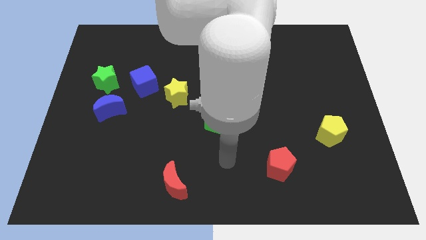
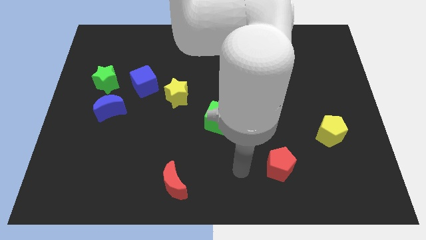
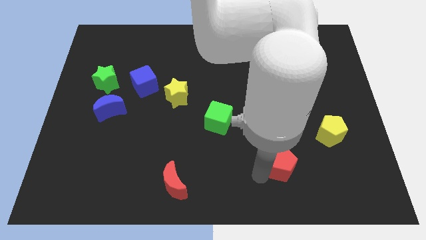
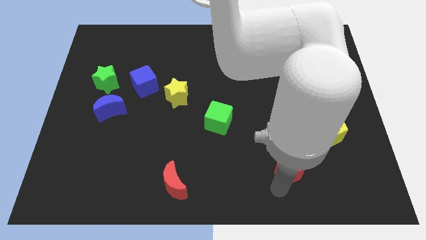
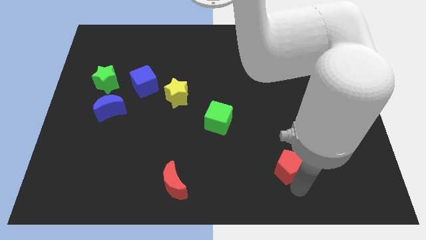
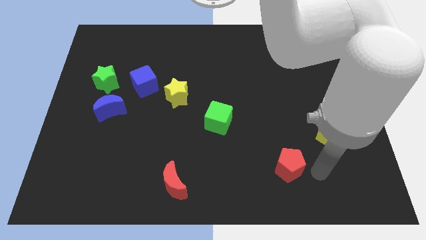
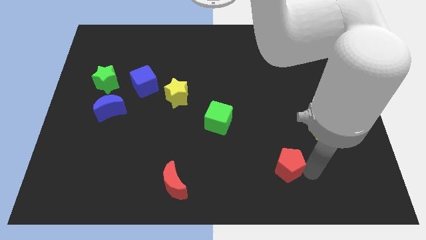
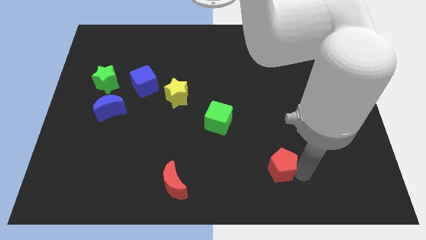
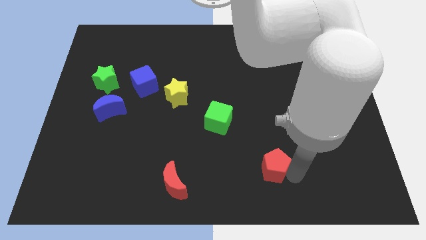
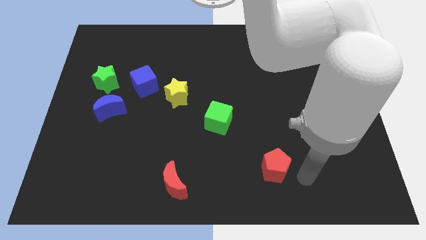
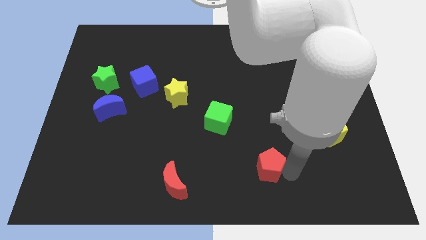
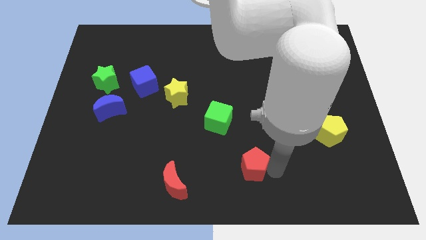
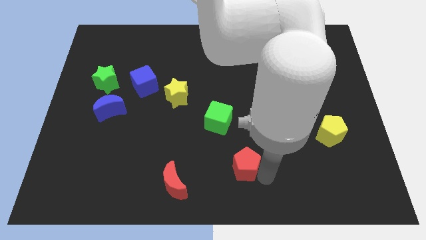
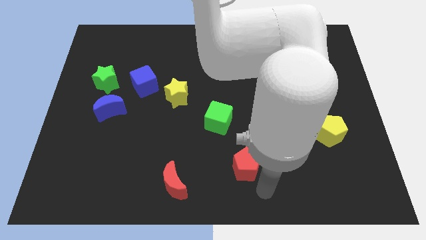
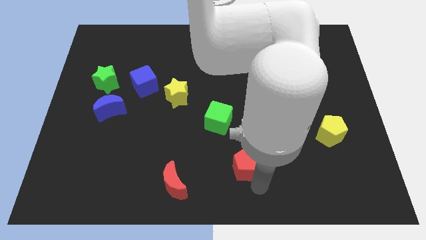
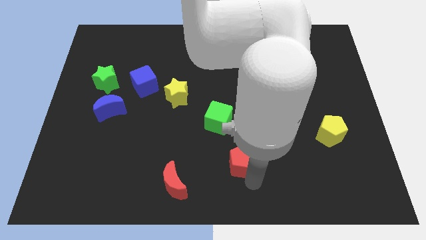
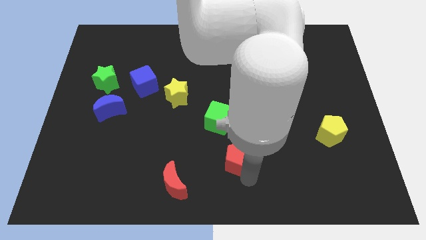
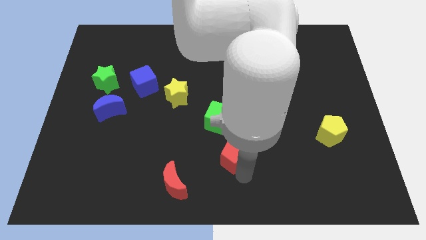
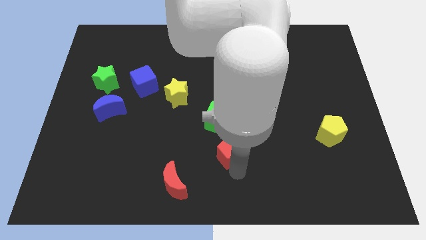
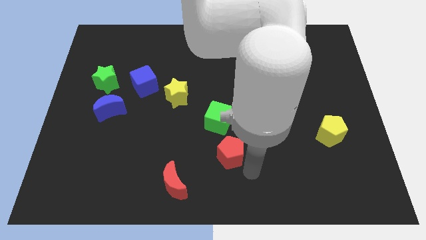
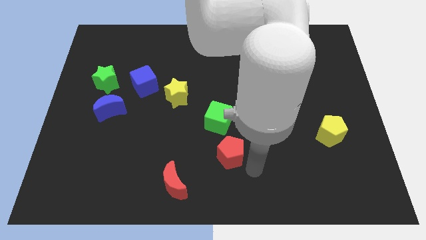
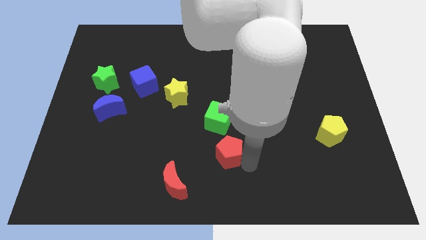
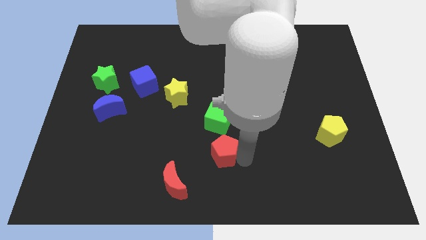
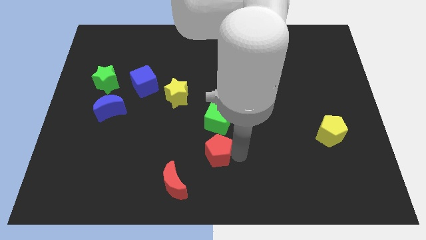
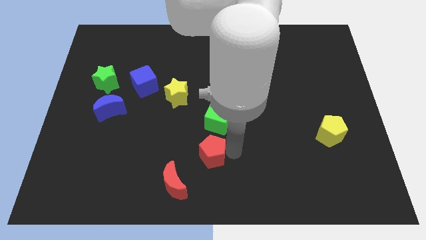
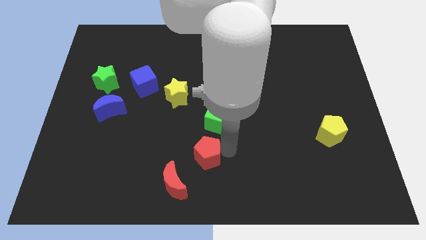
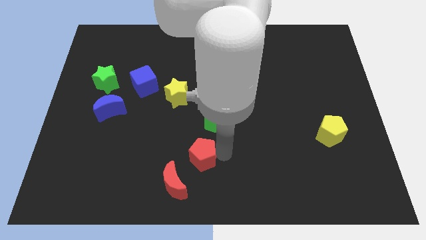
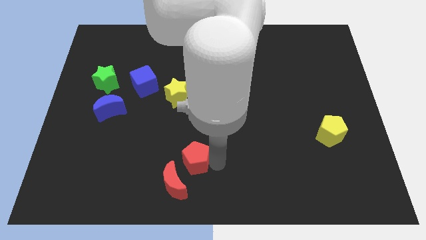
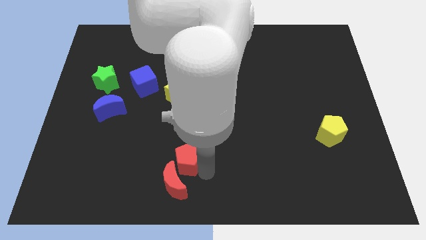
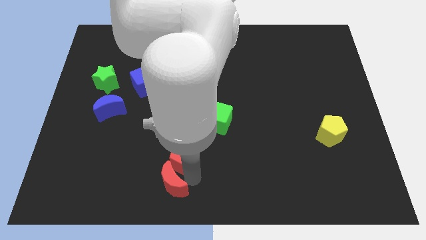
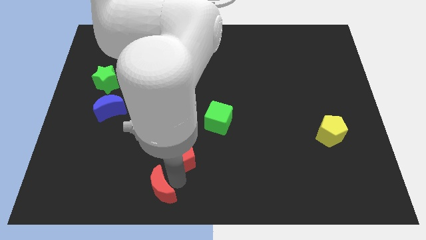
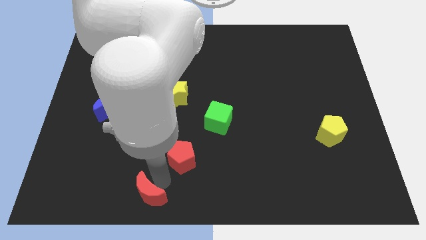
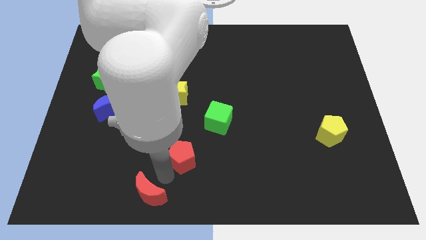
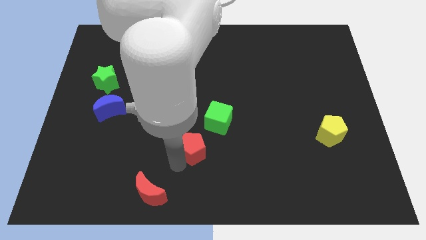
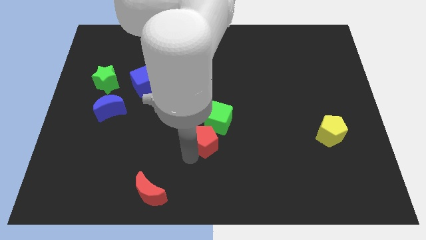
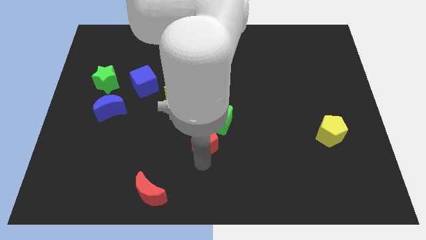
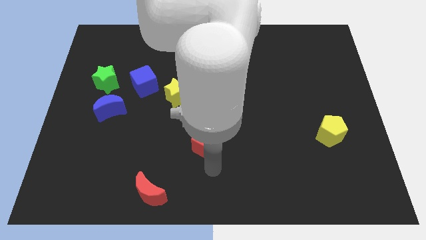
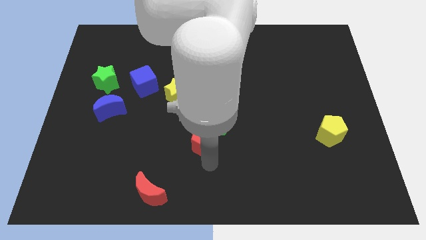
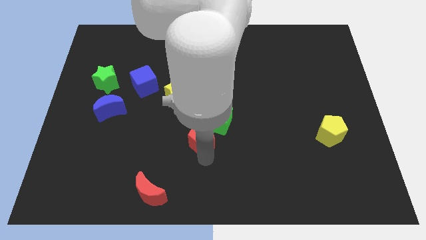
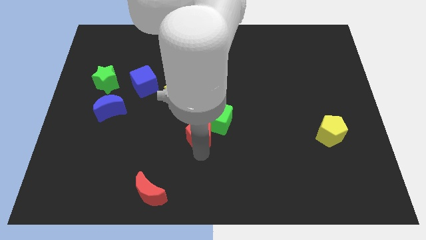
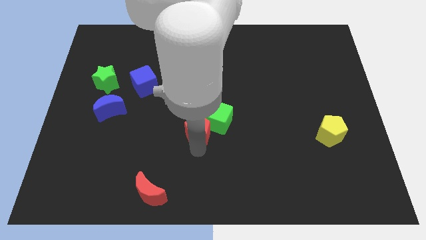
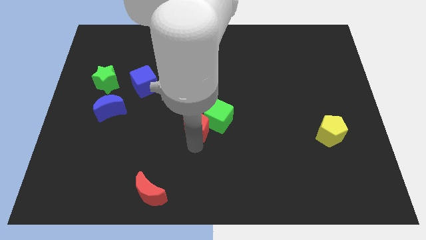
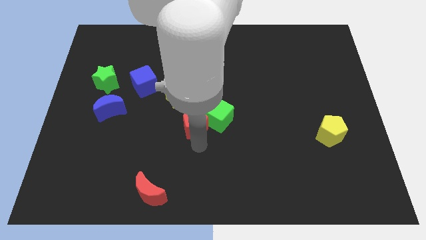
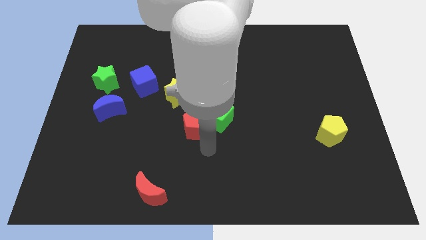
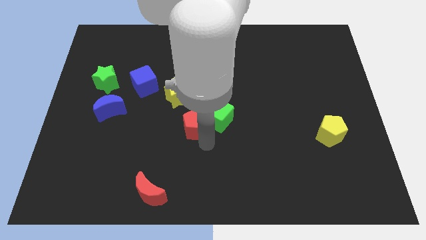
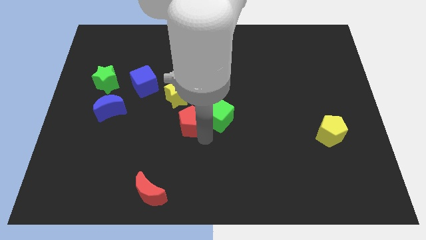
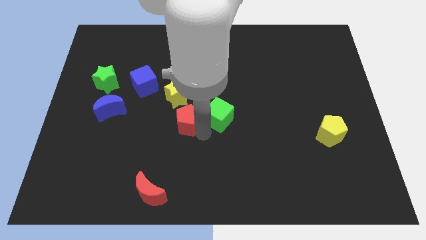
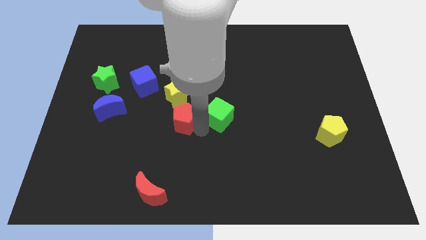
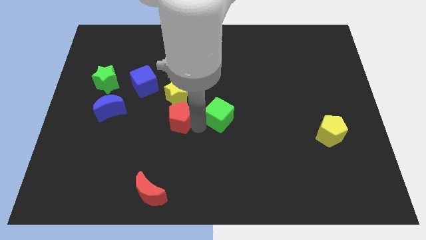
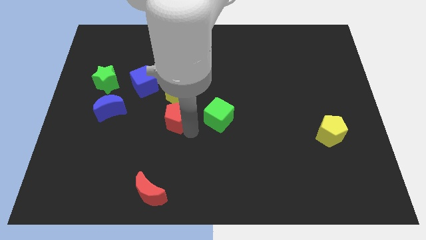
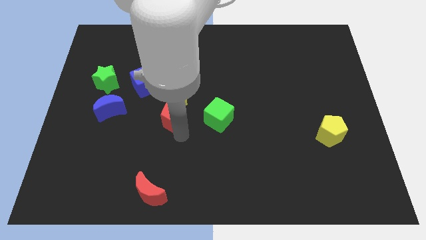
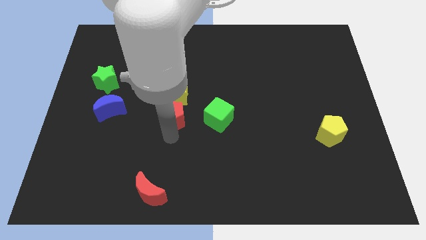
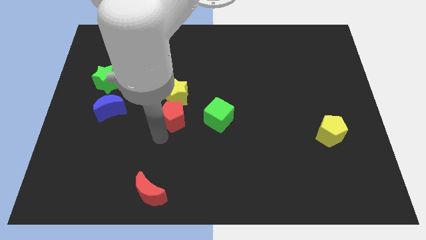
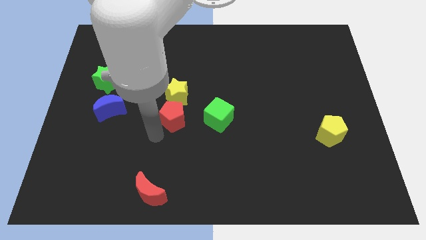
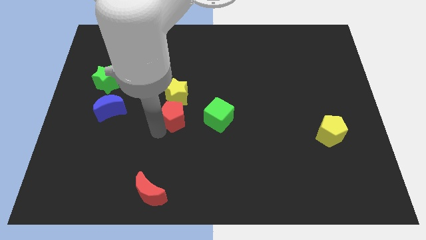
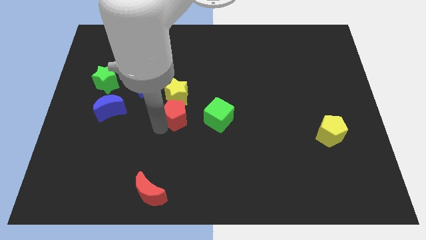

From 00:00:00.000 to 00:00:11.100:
put the red pentagon next to the yellow star

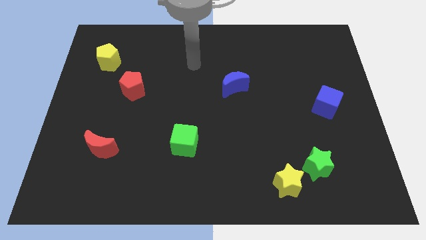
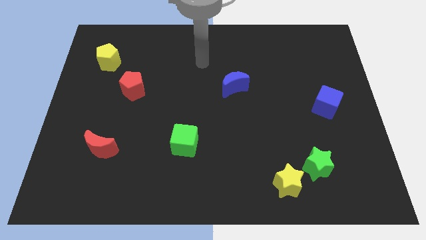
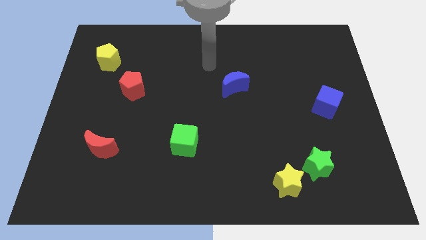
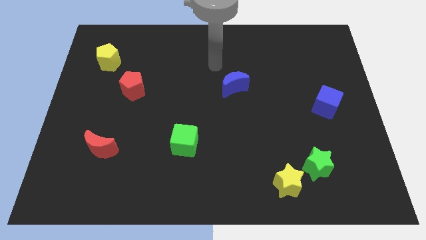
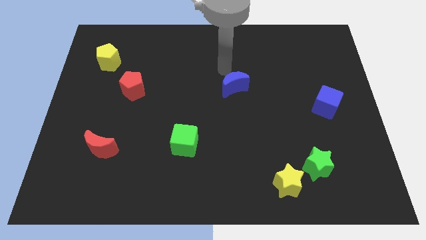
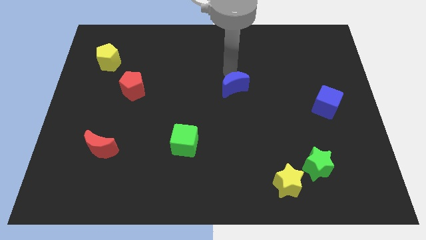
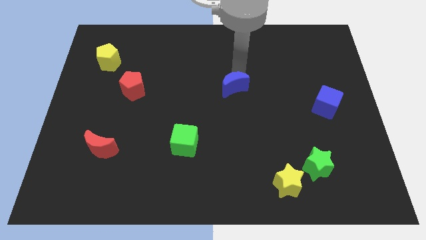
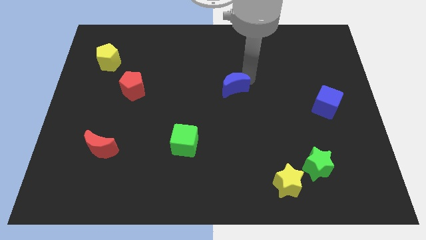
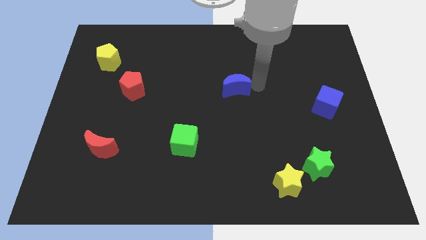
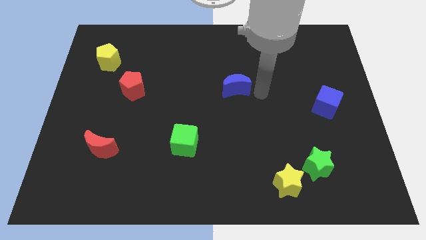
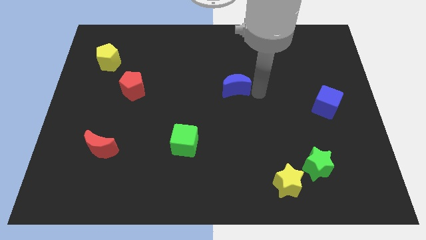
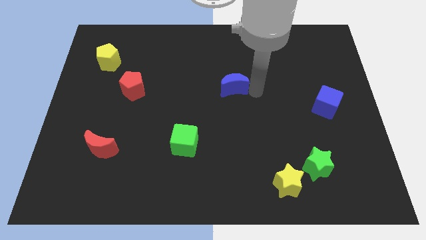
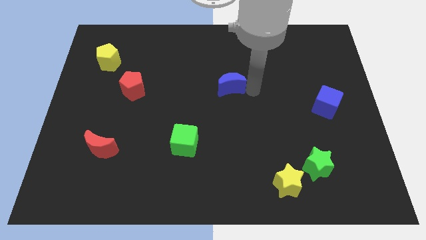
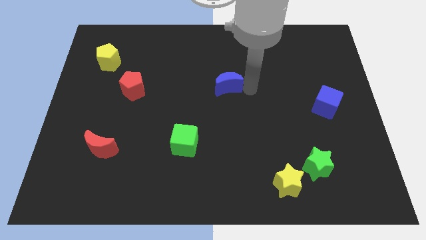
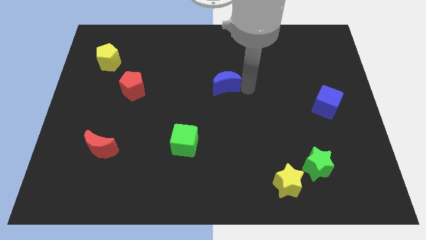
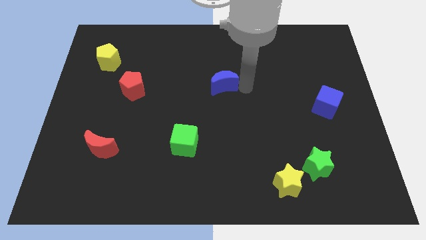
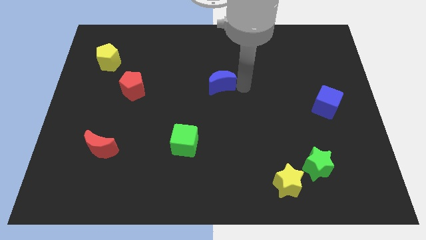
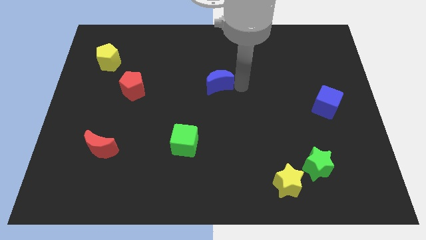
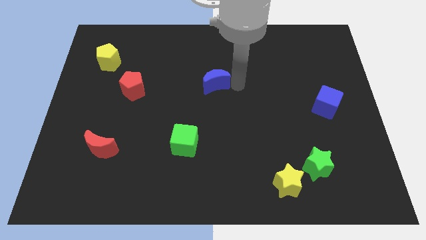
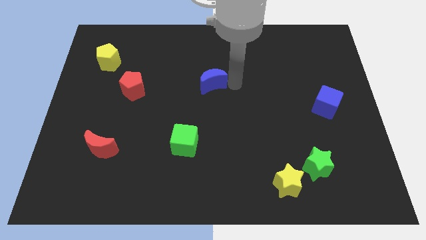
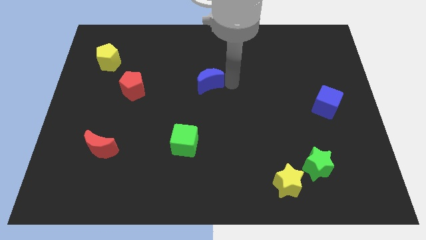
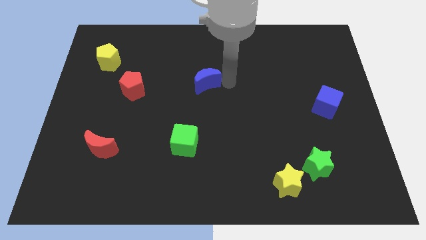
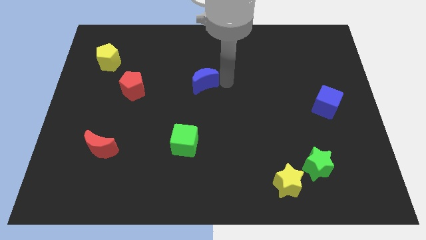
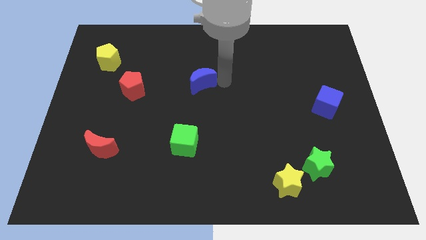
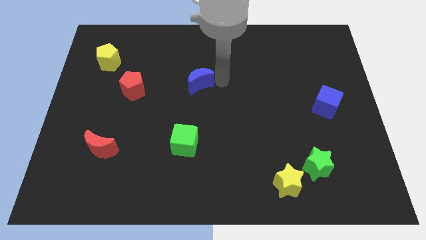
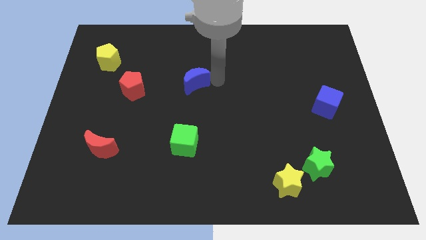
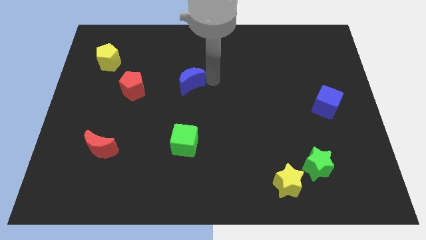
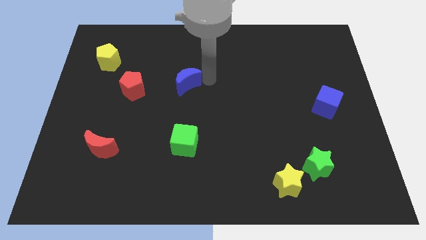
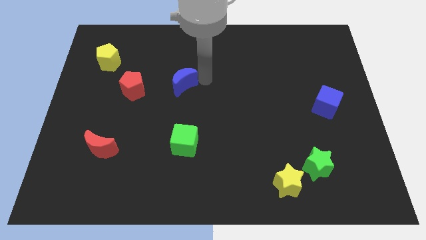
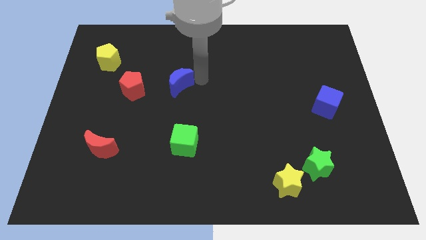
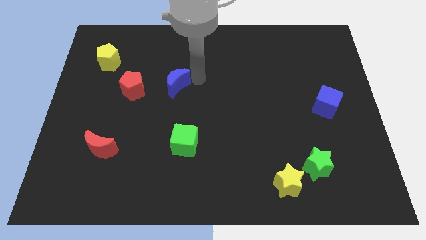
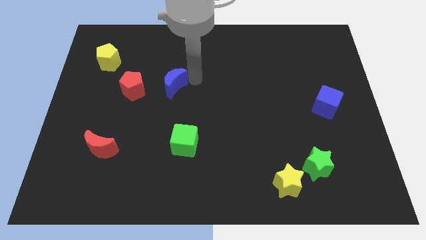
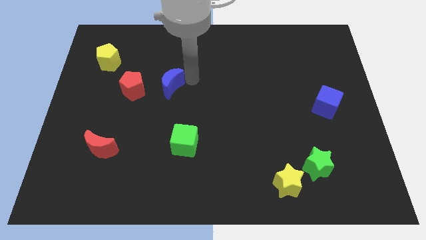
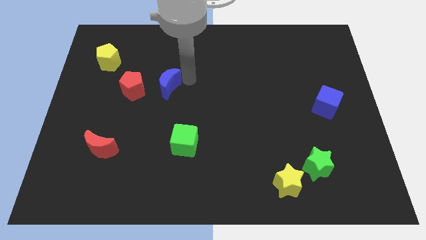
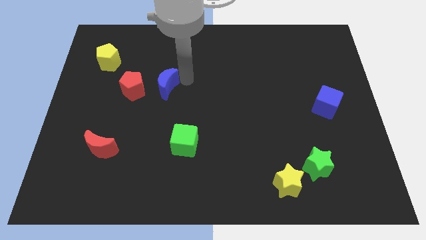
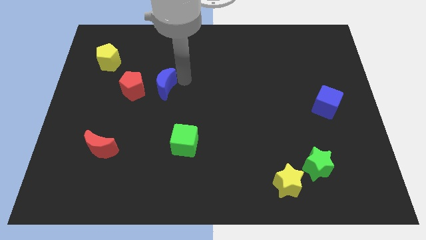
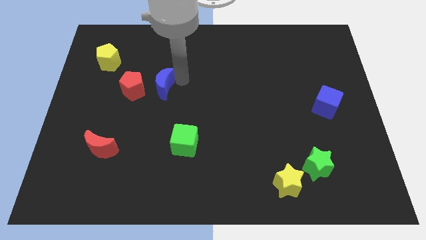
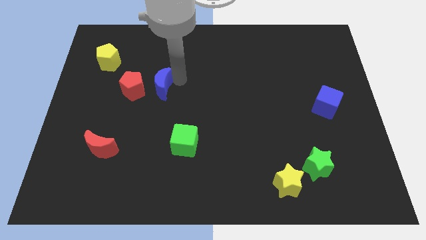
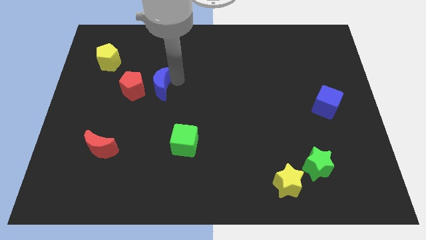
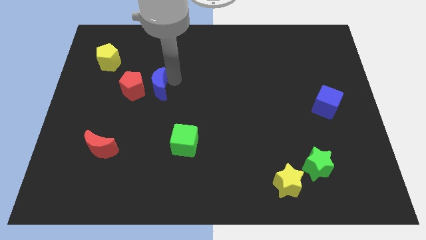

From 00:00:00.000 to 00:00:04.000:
push the blue moon to the red pentagon
